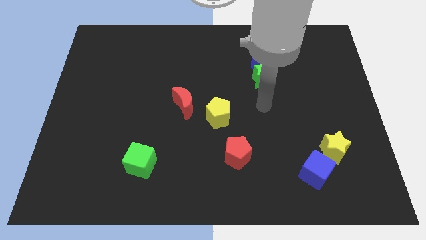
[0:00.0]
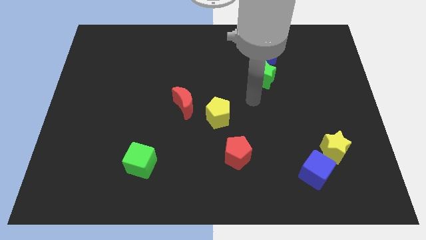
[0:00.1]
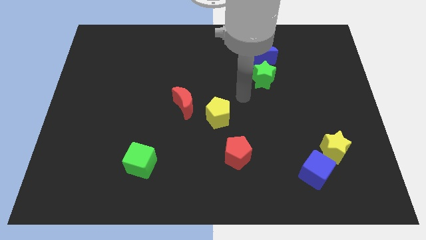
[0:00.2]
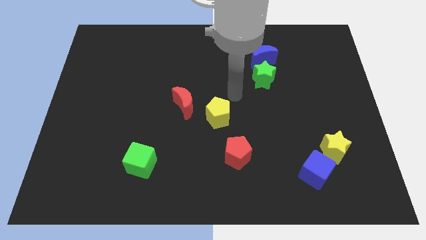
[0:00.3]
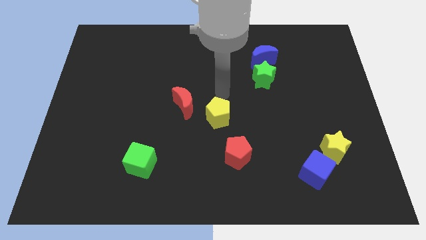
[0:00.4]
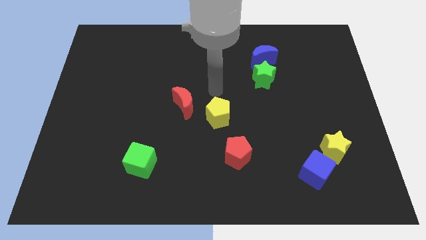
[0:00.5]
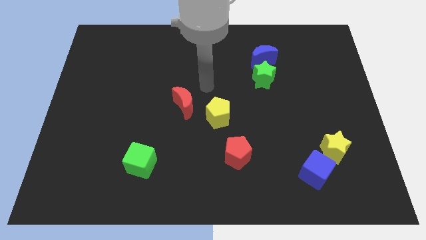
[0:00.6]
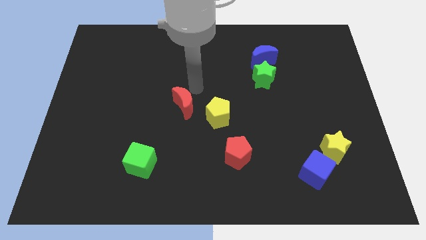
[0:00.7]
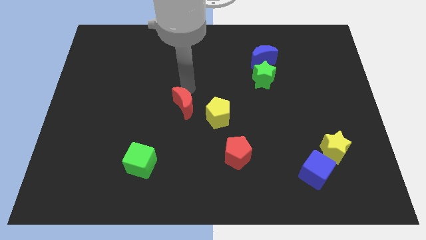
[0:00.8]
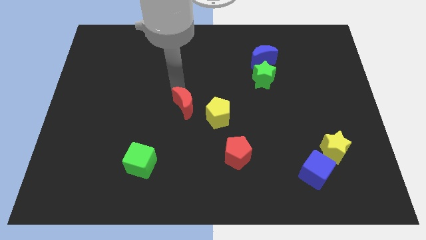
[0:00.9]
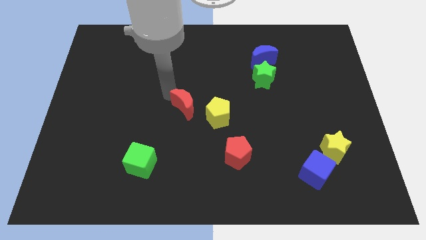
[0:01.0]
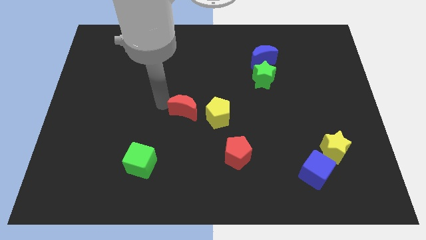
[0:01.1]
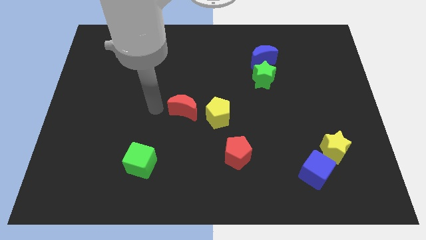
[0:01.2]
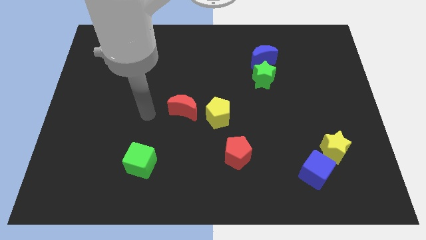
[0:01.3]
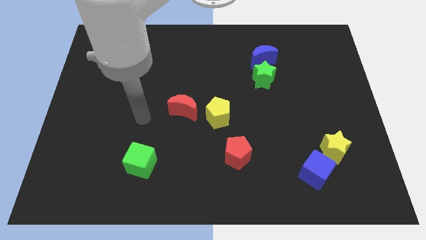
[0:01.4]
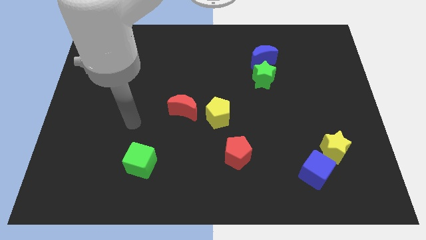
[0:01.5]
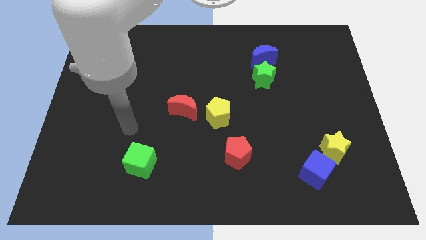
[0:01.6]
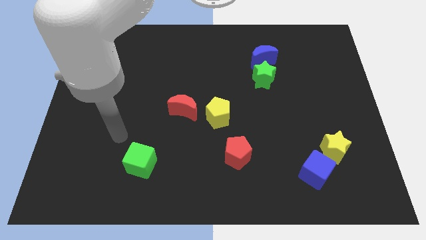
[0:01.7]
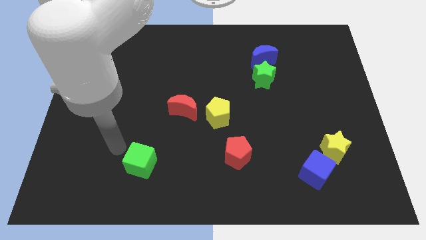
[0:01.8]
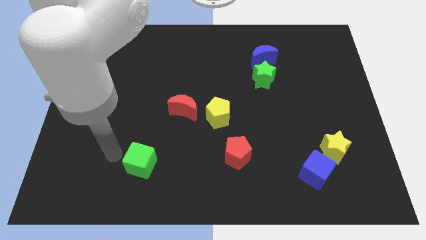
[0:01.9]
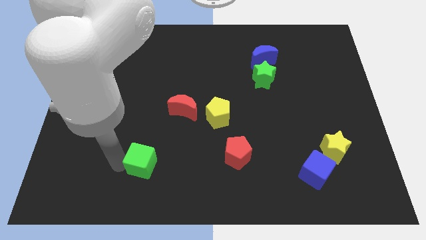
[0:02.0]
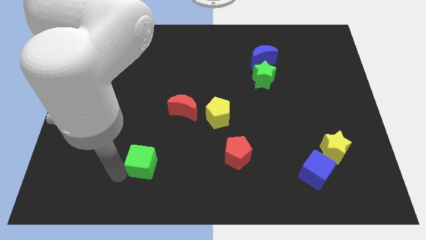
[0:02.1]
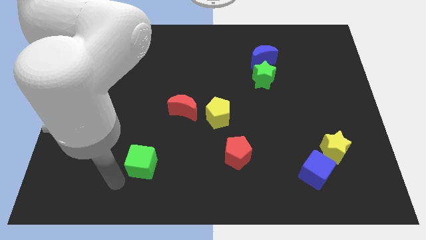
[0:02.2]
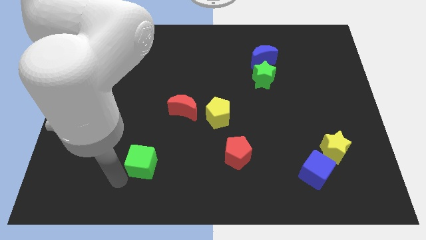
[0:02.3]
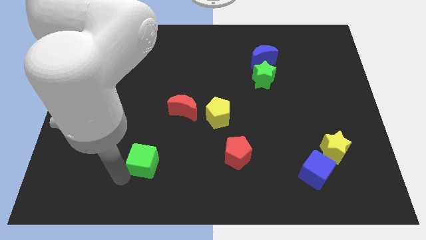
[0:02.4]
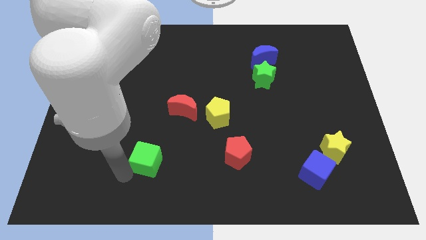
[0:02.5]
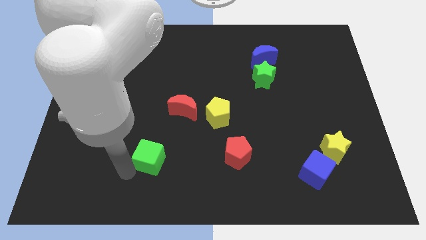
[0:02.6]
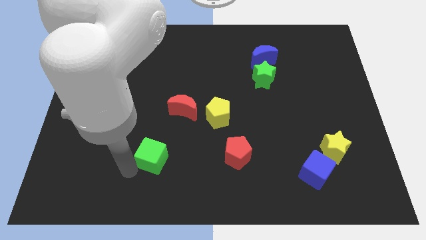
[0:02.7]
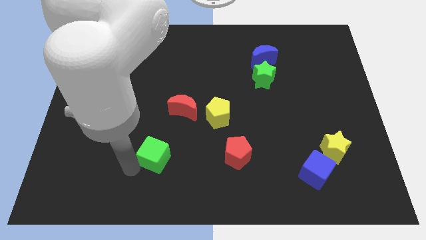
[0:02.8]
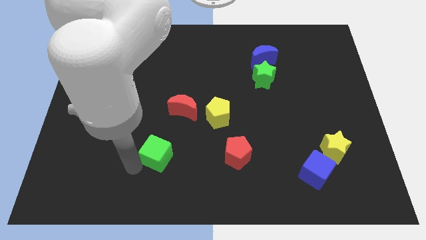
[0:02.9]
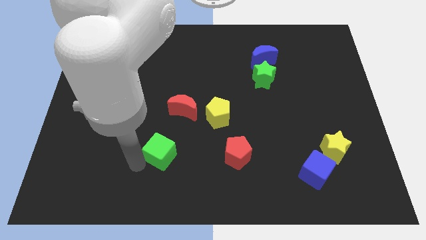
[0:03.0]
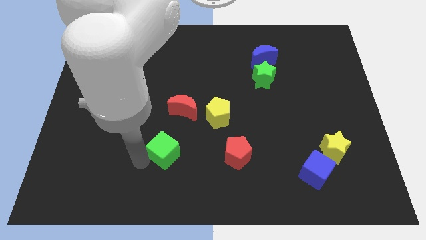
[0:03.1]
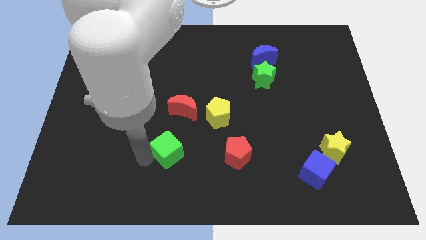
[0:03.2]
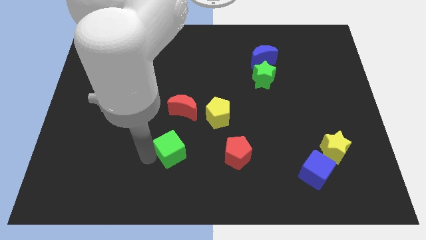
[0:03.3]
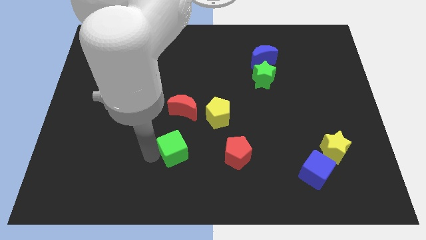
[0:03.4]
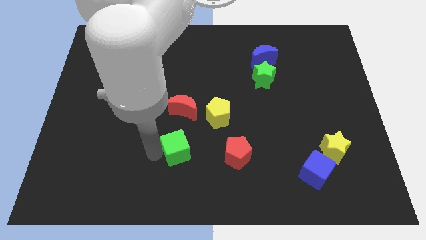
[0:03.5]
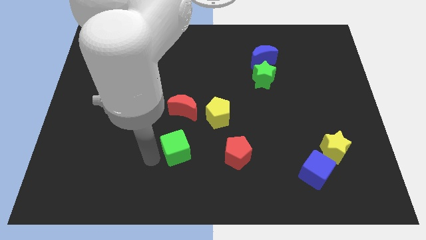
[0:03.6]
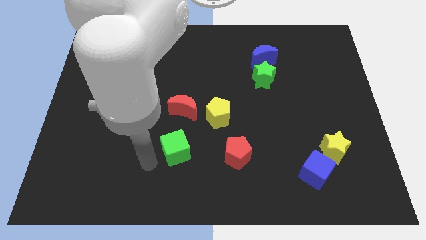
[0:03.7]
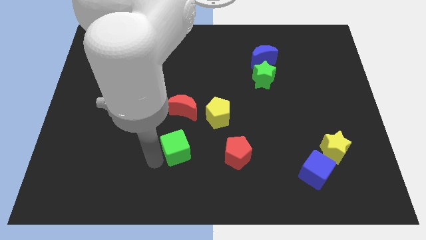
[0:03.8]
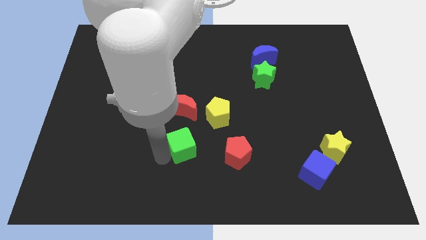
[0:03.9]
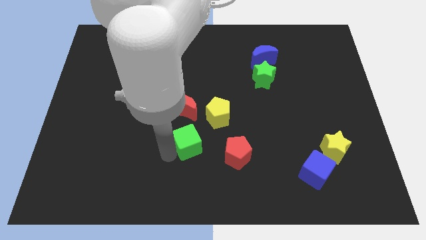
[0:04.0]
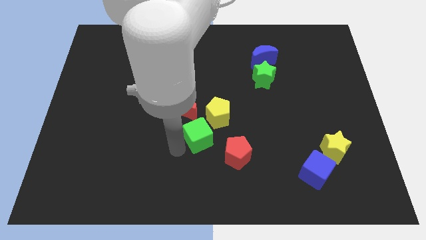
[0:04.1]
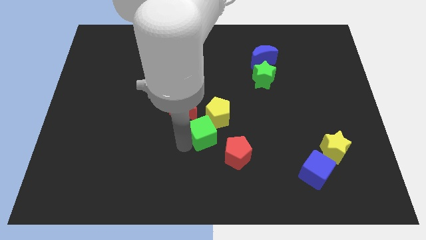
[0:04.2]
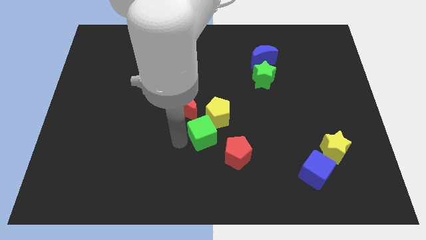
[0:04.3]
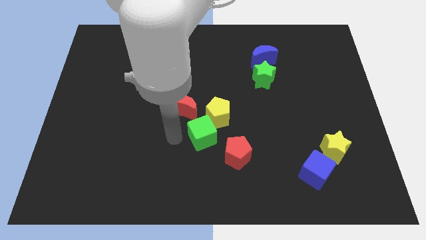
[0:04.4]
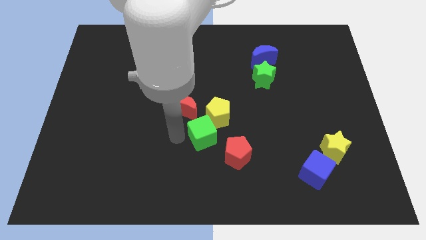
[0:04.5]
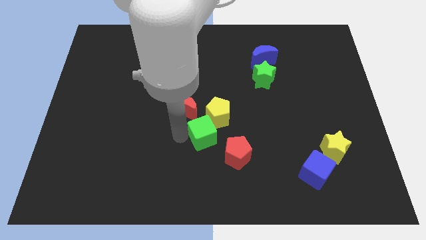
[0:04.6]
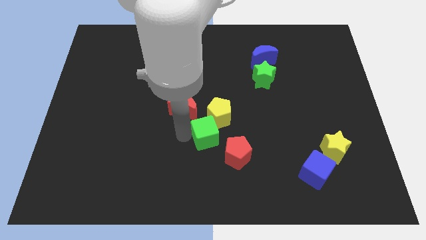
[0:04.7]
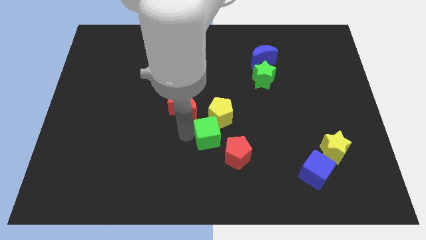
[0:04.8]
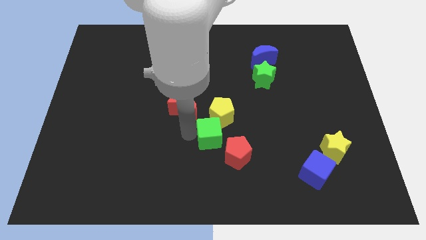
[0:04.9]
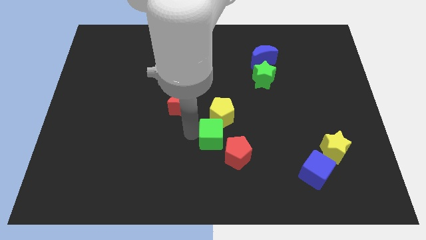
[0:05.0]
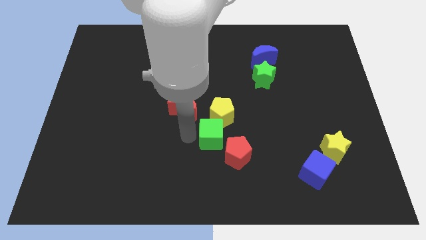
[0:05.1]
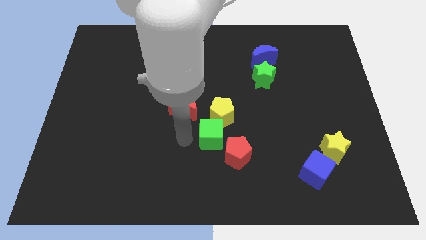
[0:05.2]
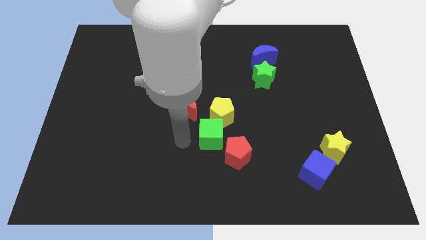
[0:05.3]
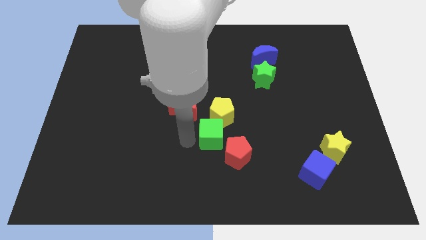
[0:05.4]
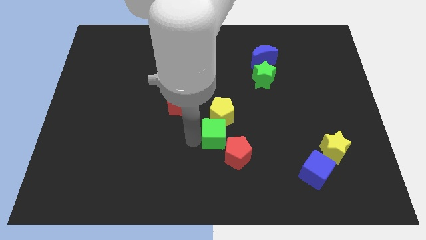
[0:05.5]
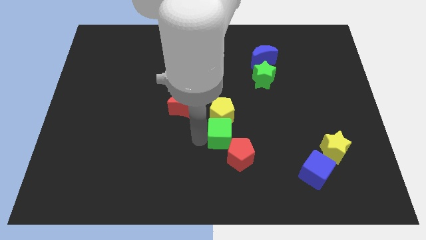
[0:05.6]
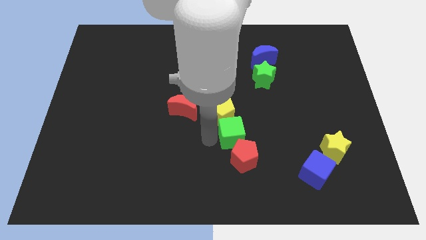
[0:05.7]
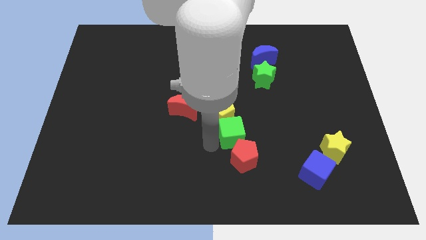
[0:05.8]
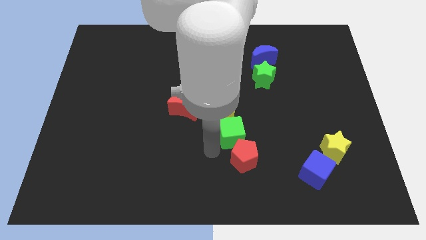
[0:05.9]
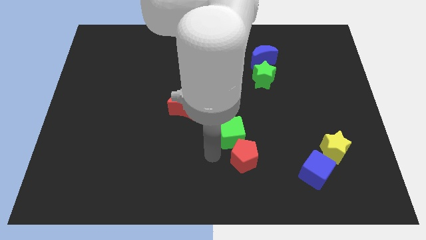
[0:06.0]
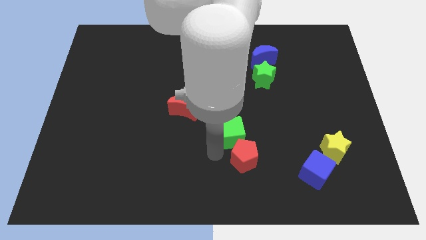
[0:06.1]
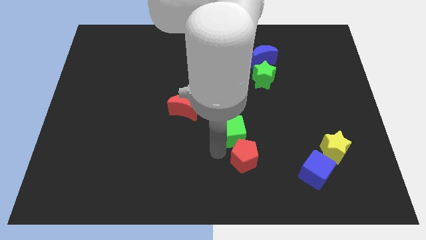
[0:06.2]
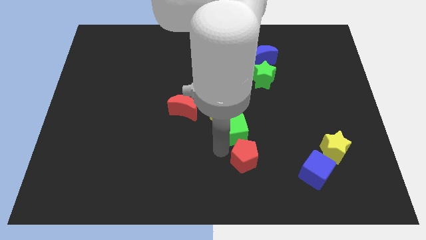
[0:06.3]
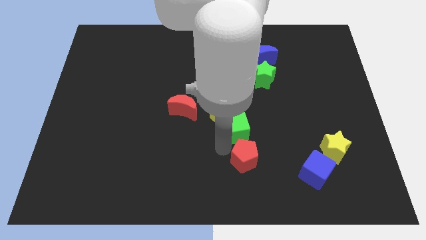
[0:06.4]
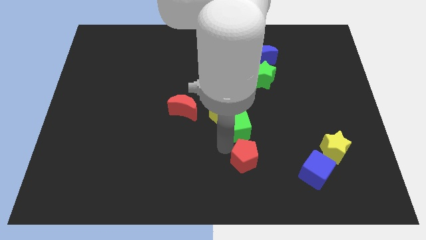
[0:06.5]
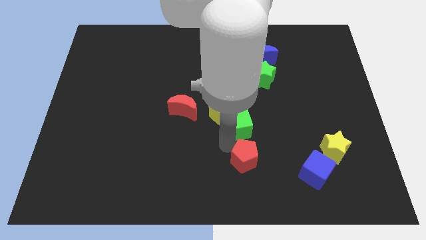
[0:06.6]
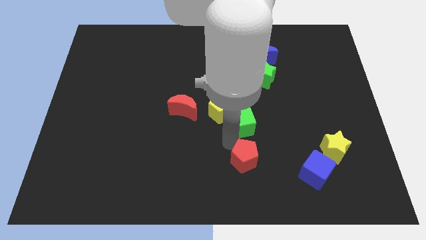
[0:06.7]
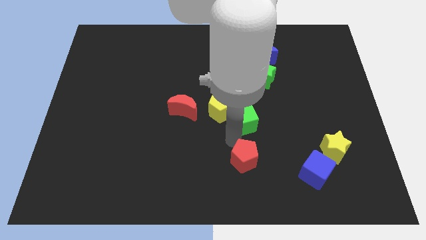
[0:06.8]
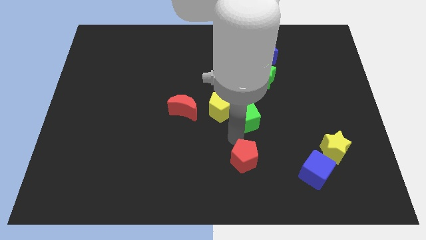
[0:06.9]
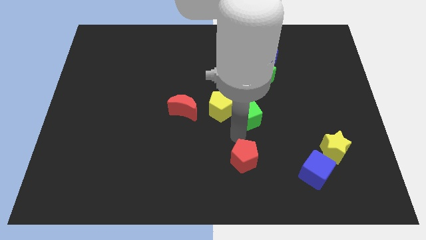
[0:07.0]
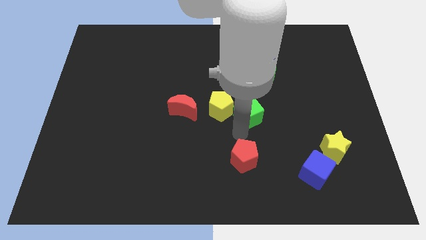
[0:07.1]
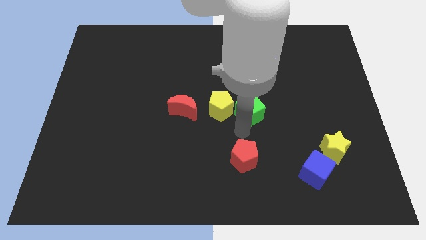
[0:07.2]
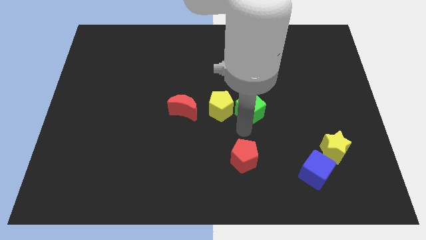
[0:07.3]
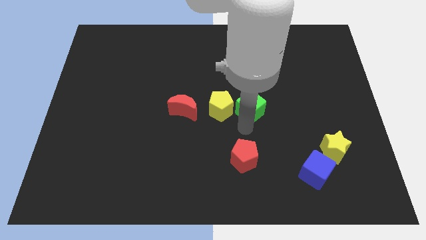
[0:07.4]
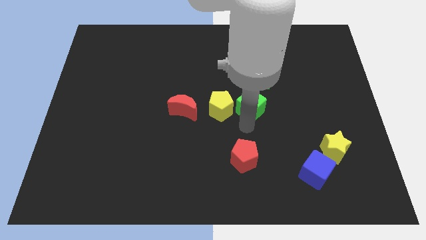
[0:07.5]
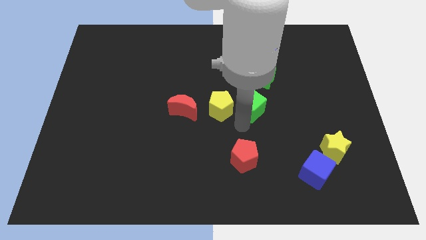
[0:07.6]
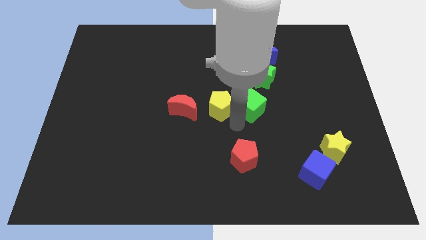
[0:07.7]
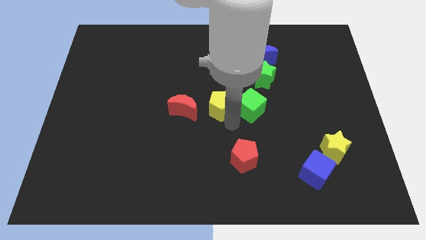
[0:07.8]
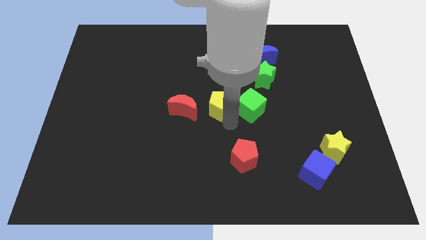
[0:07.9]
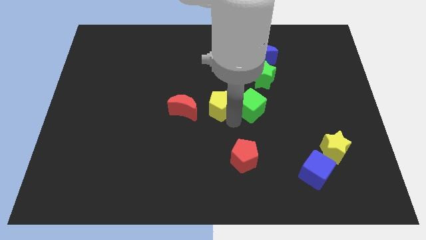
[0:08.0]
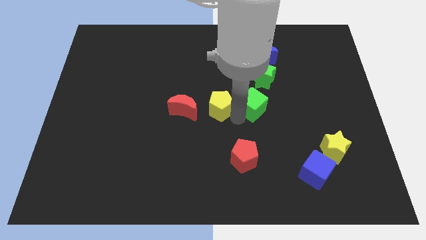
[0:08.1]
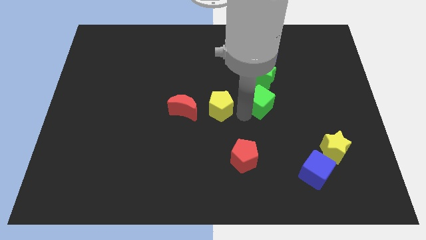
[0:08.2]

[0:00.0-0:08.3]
move the green cube to the bottom of the blue moon
